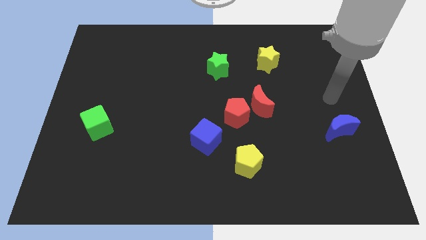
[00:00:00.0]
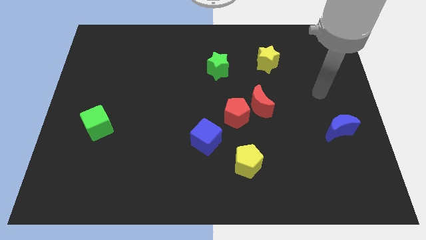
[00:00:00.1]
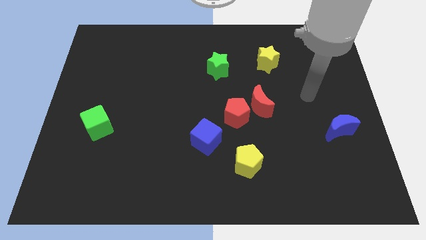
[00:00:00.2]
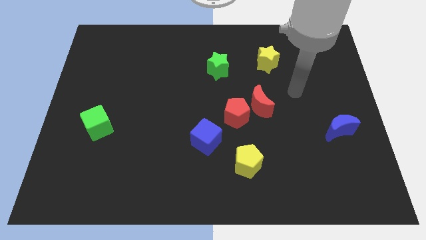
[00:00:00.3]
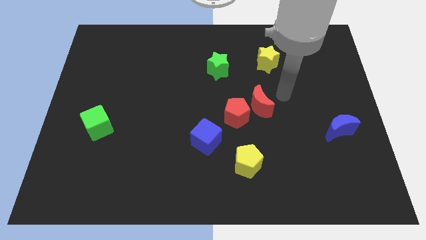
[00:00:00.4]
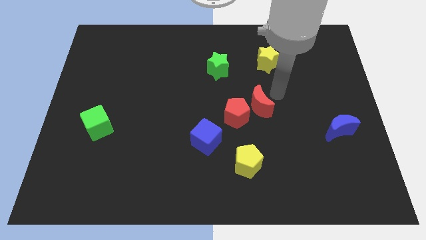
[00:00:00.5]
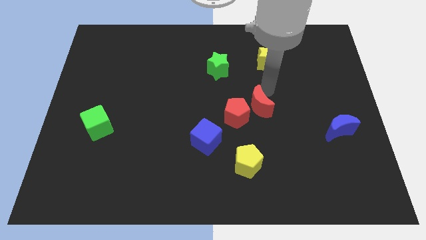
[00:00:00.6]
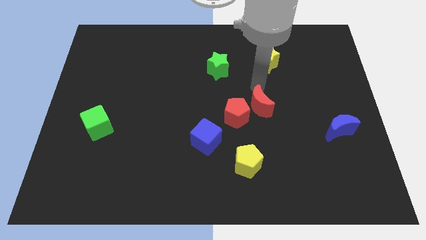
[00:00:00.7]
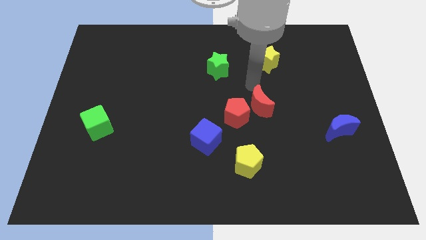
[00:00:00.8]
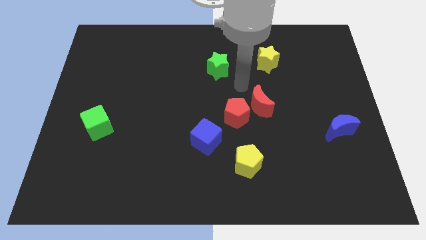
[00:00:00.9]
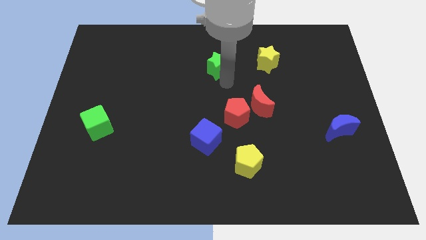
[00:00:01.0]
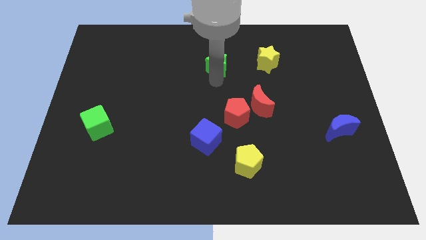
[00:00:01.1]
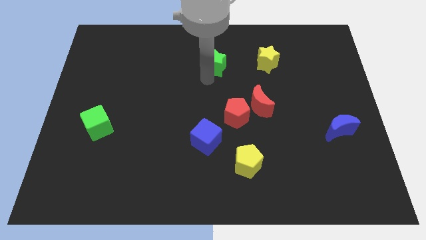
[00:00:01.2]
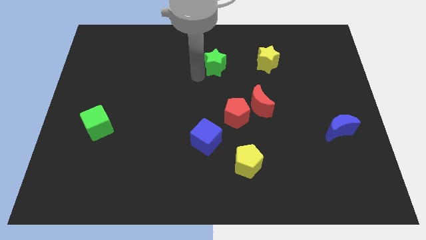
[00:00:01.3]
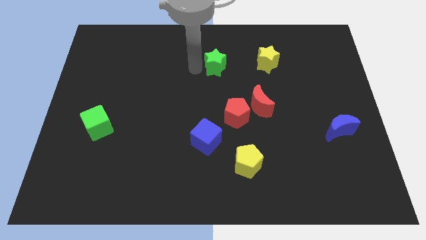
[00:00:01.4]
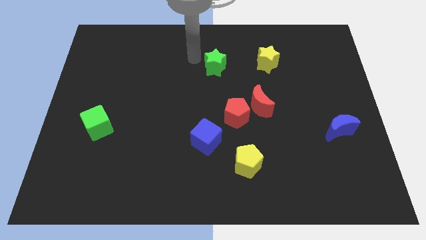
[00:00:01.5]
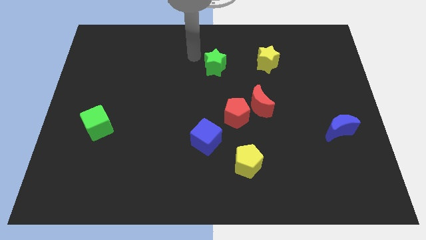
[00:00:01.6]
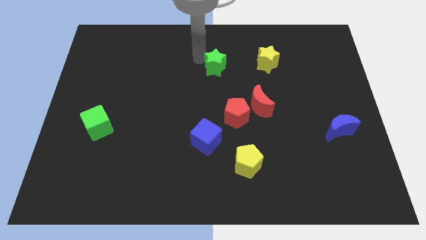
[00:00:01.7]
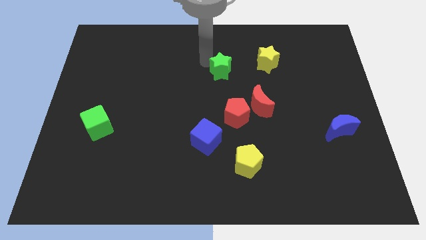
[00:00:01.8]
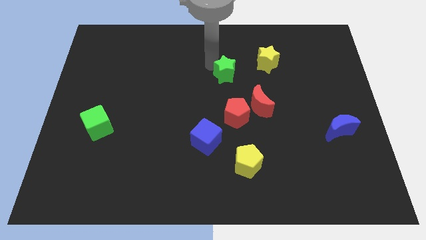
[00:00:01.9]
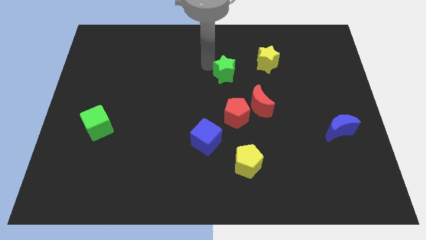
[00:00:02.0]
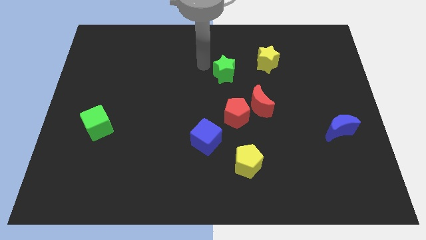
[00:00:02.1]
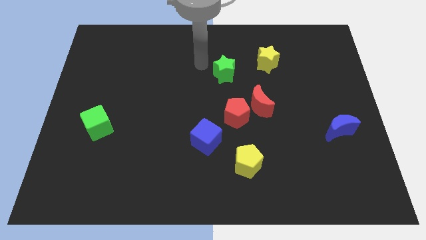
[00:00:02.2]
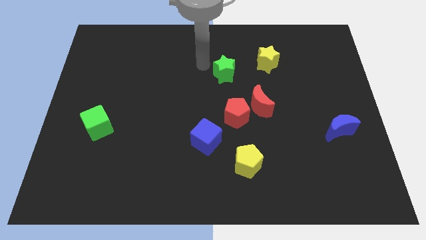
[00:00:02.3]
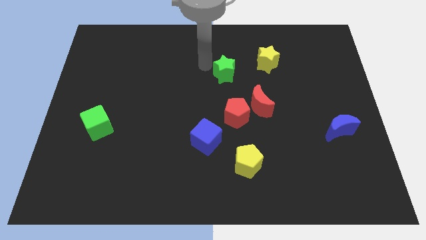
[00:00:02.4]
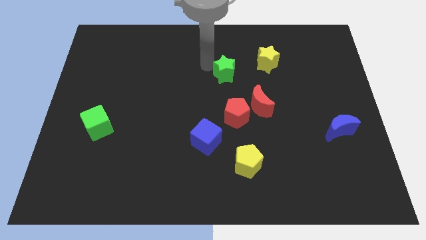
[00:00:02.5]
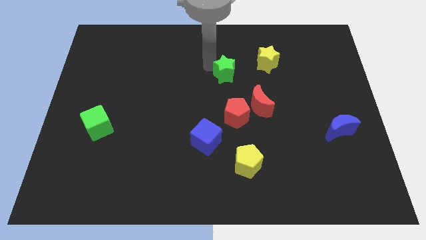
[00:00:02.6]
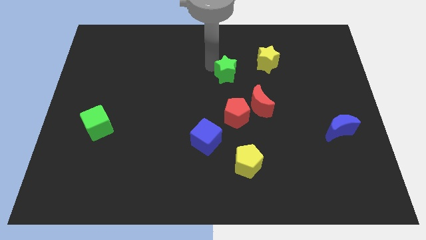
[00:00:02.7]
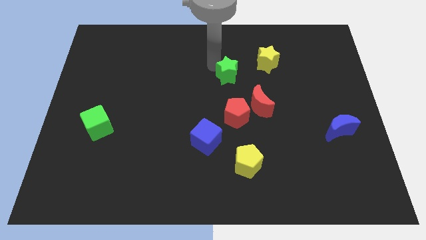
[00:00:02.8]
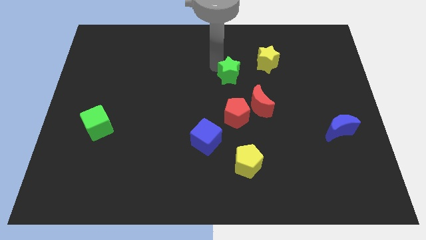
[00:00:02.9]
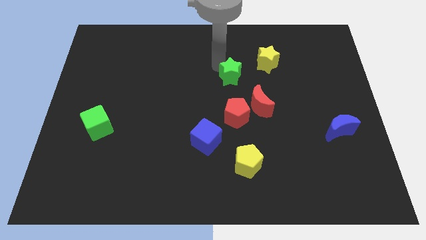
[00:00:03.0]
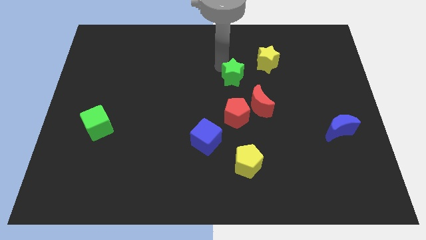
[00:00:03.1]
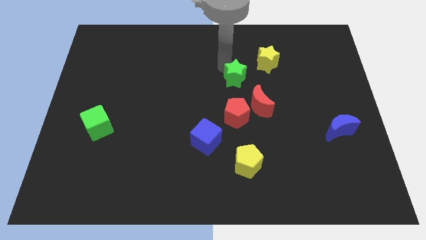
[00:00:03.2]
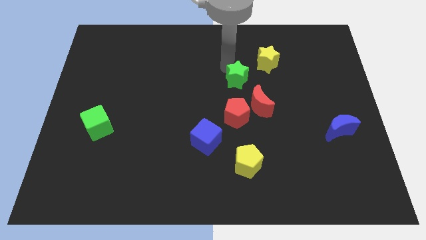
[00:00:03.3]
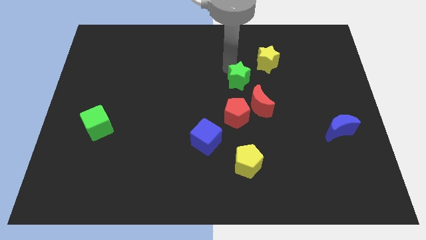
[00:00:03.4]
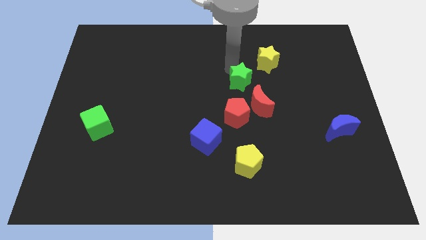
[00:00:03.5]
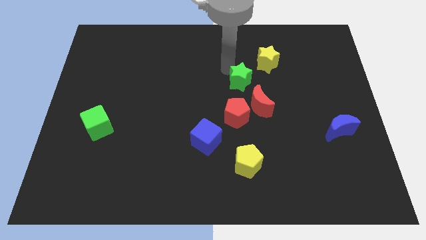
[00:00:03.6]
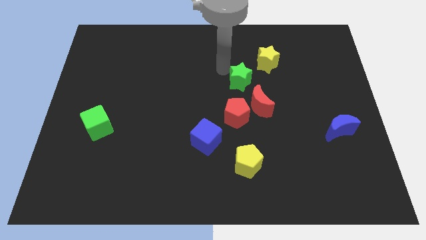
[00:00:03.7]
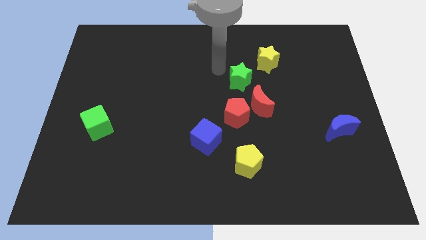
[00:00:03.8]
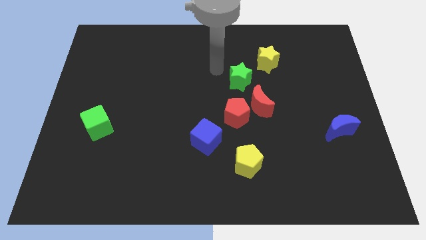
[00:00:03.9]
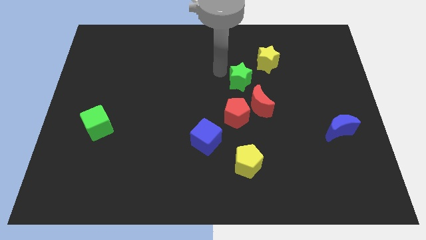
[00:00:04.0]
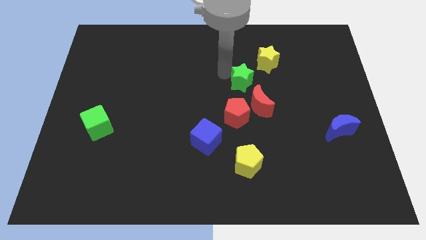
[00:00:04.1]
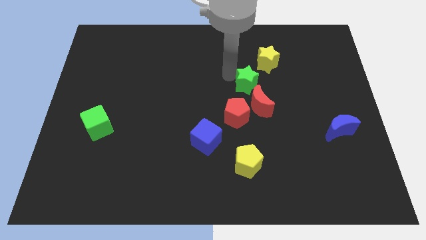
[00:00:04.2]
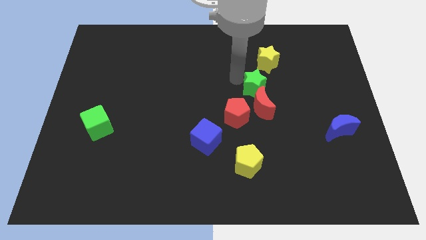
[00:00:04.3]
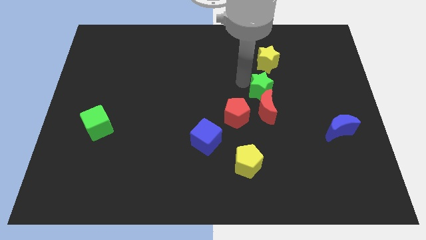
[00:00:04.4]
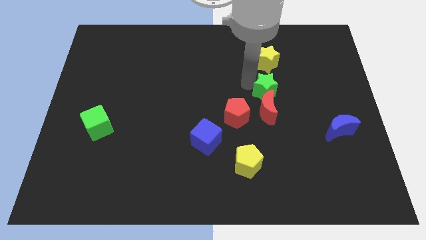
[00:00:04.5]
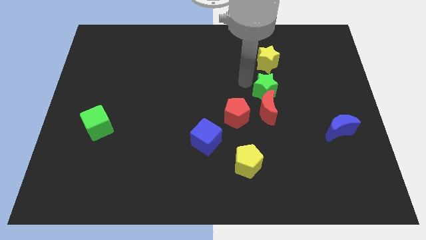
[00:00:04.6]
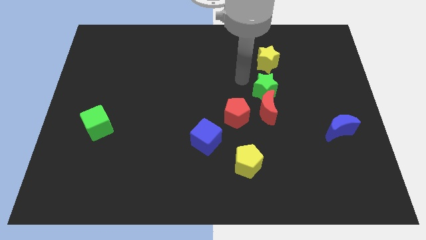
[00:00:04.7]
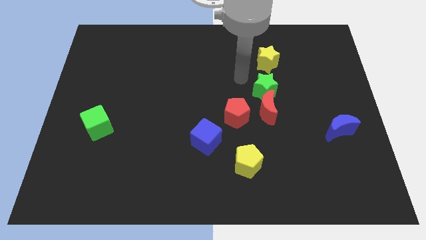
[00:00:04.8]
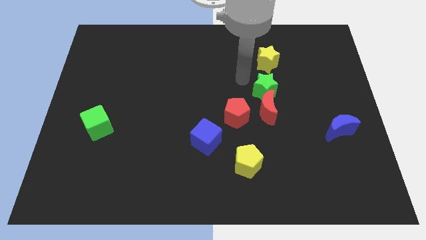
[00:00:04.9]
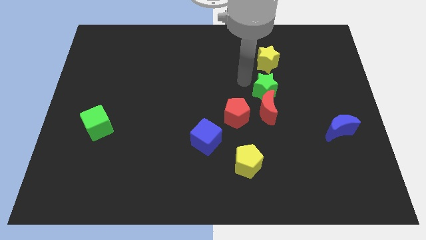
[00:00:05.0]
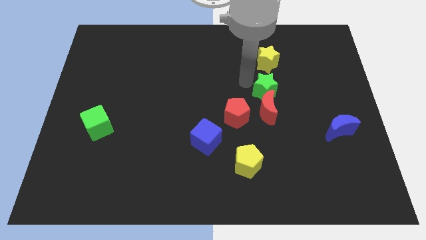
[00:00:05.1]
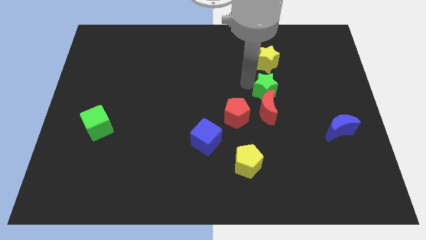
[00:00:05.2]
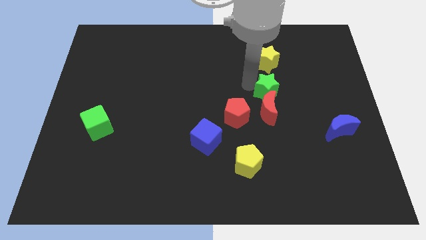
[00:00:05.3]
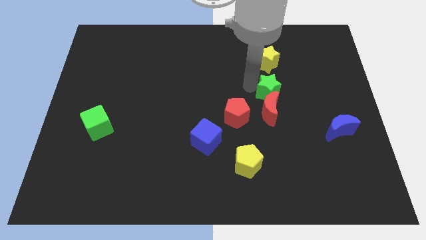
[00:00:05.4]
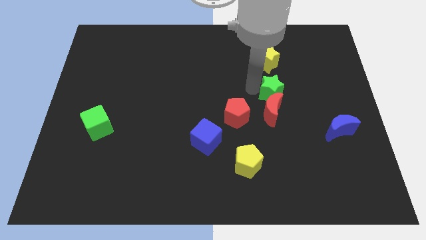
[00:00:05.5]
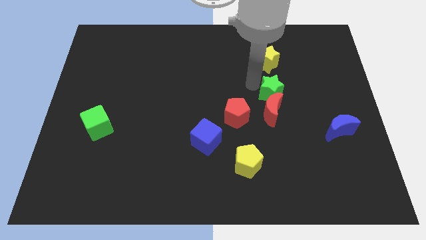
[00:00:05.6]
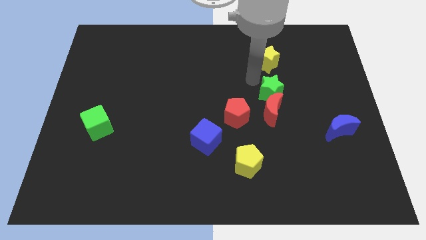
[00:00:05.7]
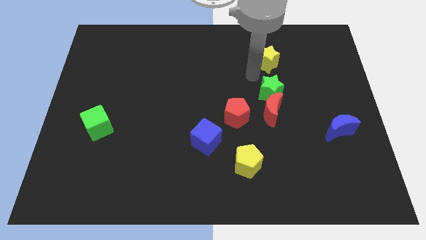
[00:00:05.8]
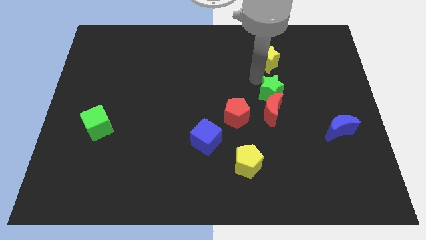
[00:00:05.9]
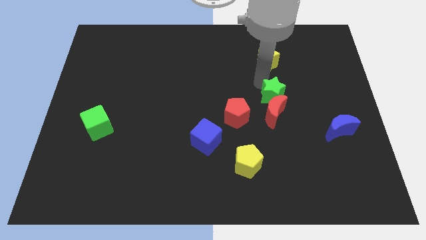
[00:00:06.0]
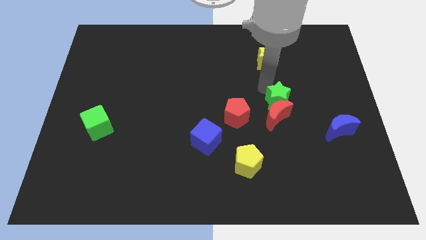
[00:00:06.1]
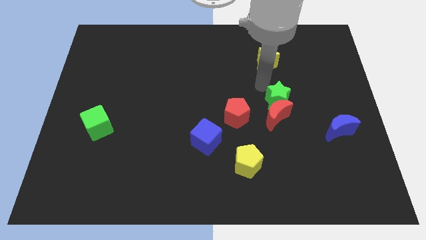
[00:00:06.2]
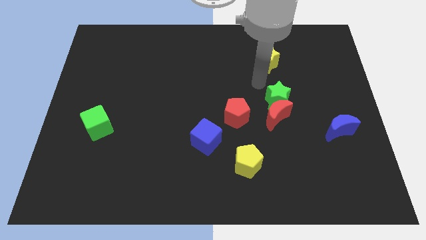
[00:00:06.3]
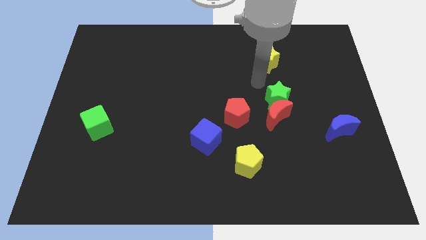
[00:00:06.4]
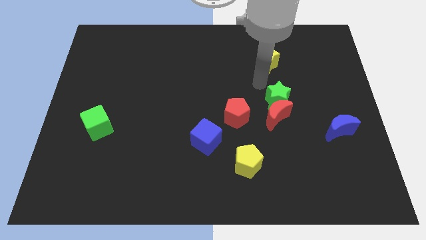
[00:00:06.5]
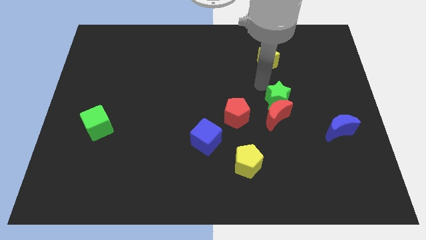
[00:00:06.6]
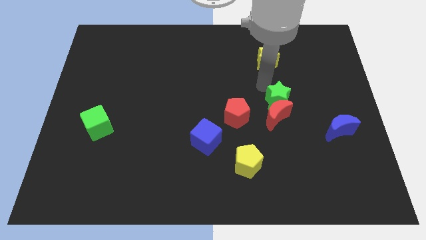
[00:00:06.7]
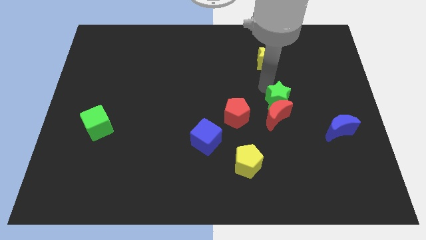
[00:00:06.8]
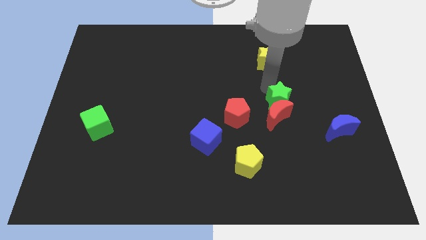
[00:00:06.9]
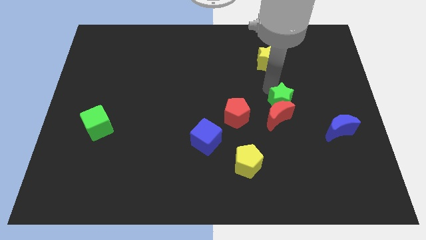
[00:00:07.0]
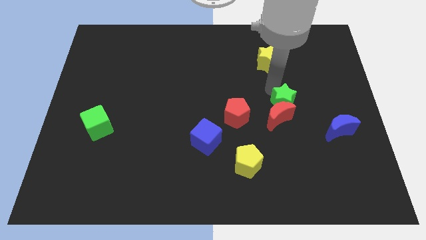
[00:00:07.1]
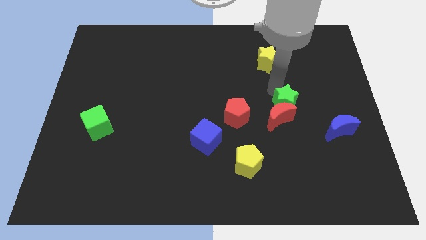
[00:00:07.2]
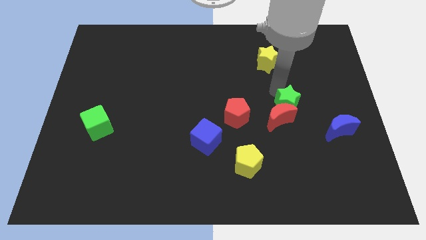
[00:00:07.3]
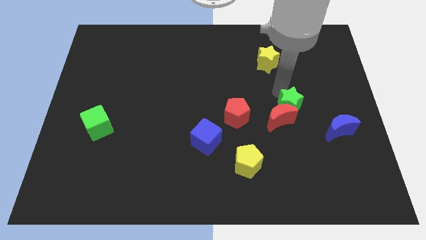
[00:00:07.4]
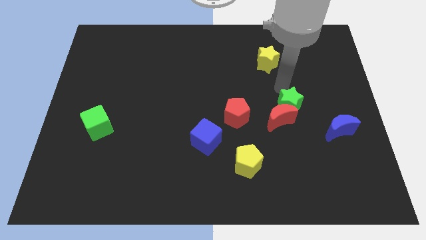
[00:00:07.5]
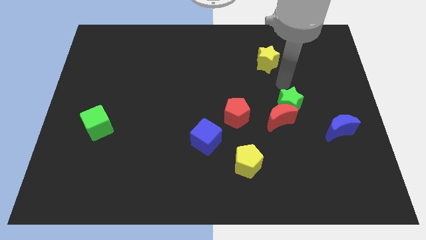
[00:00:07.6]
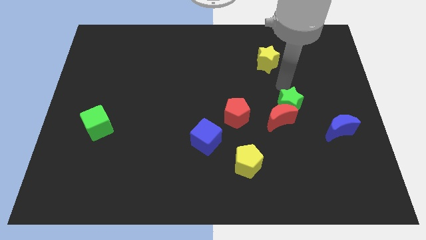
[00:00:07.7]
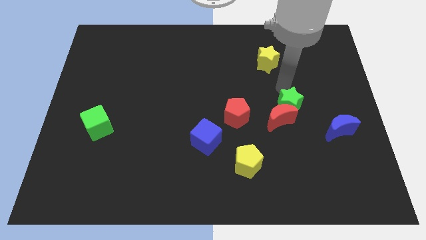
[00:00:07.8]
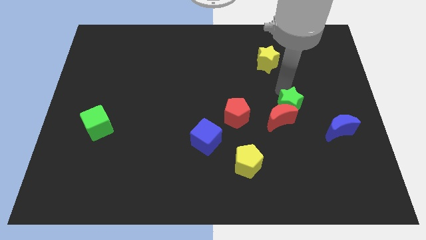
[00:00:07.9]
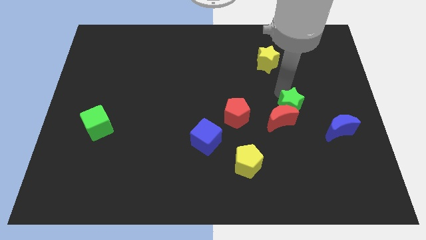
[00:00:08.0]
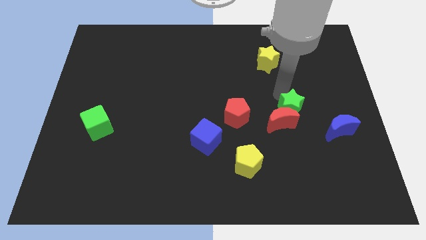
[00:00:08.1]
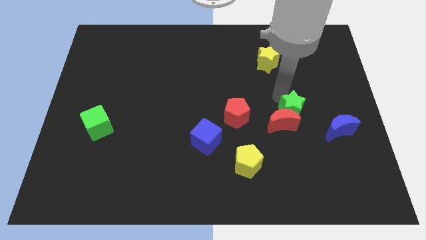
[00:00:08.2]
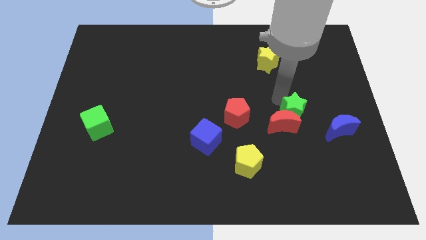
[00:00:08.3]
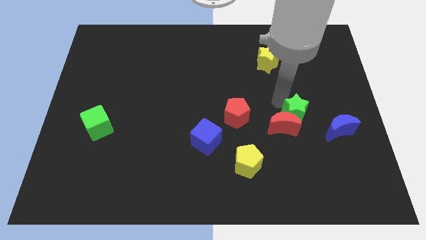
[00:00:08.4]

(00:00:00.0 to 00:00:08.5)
push the green star just left of the blue moon
